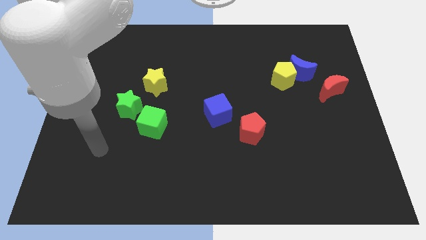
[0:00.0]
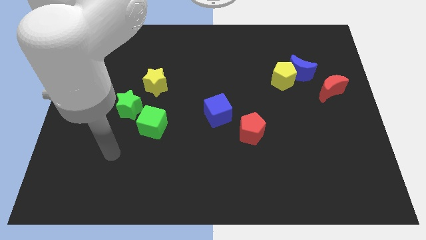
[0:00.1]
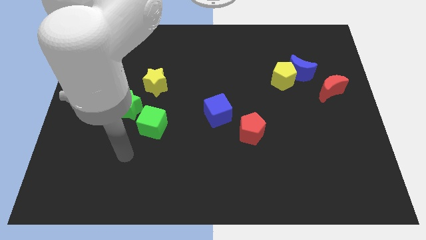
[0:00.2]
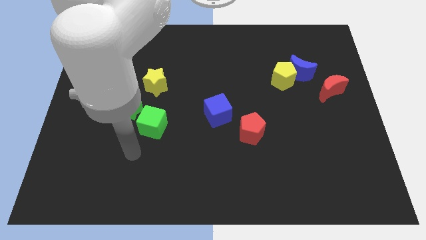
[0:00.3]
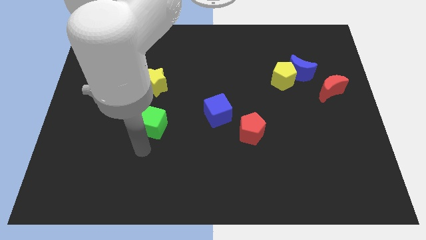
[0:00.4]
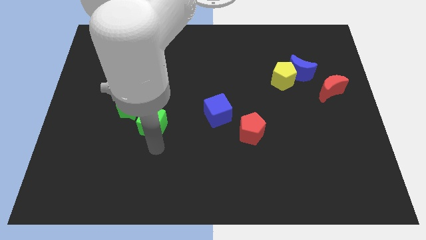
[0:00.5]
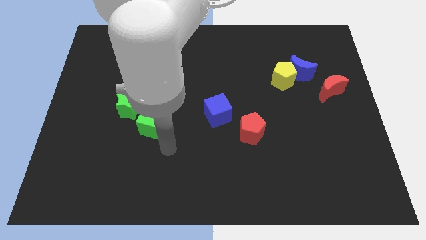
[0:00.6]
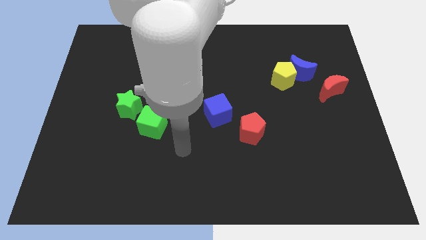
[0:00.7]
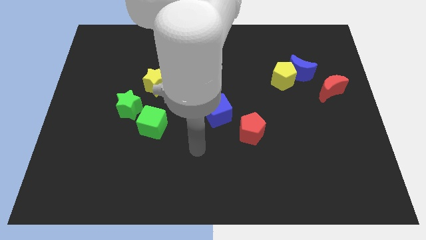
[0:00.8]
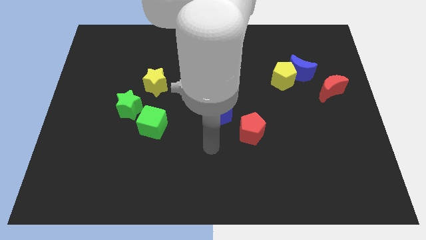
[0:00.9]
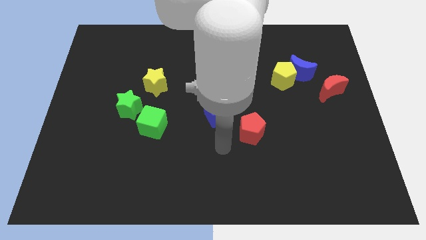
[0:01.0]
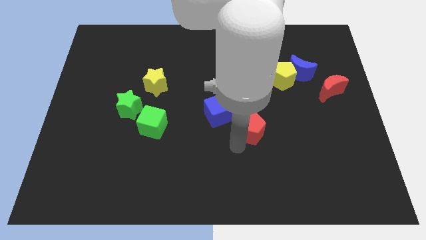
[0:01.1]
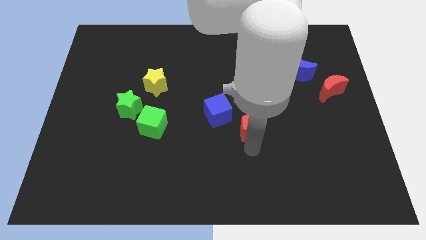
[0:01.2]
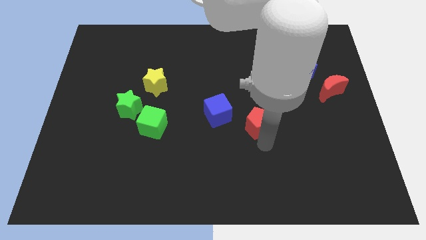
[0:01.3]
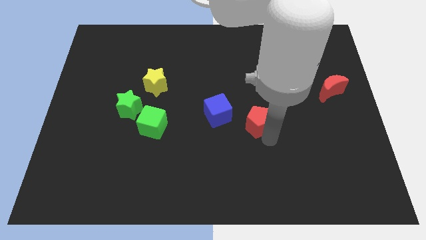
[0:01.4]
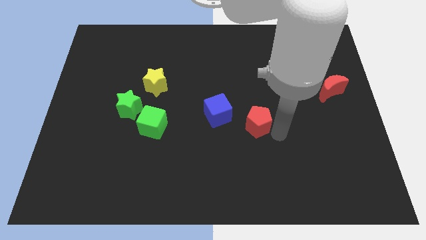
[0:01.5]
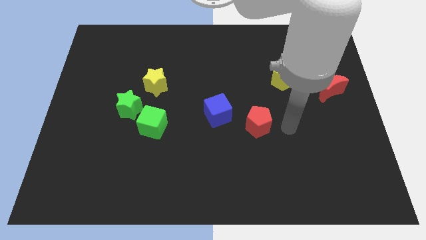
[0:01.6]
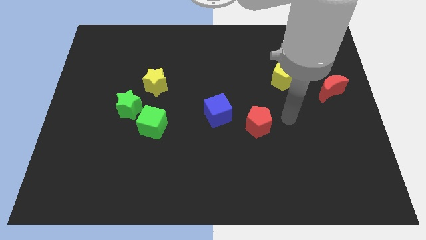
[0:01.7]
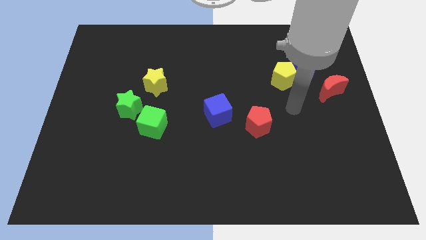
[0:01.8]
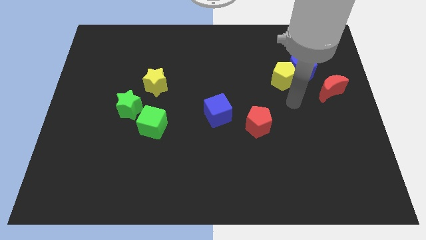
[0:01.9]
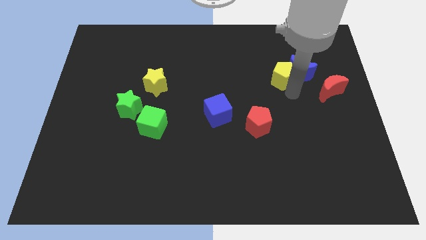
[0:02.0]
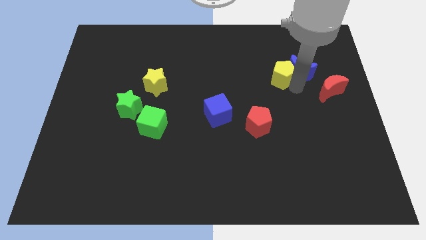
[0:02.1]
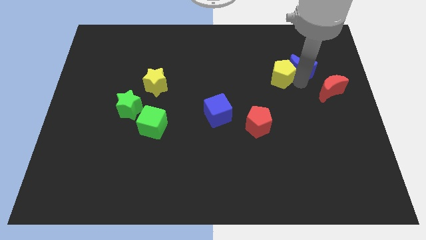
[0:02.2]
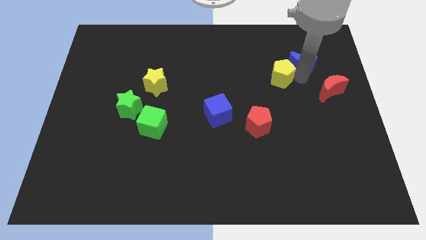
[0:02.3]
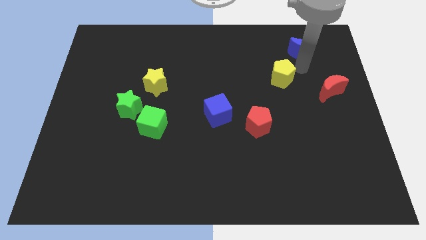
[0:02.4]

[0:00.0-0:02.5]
separate the yellow pentagon from the blue moon

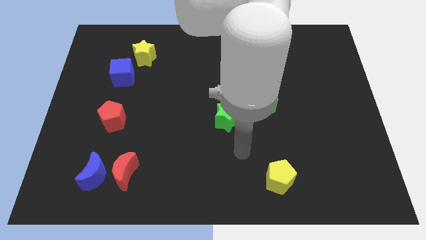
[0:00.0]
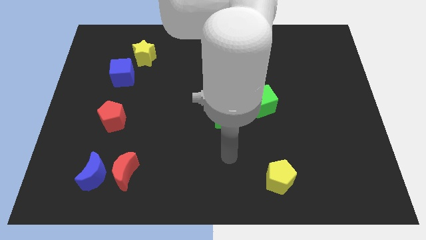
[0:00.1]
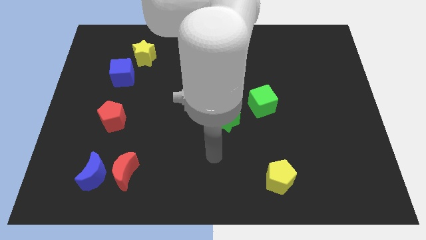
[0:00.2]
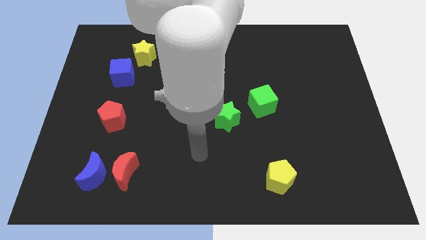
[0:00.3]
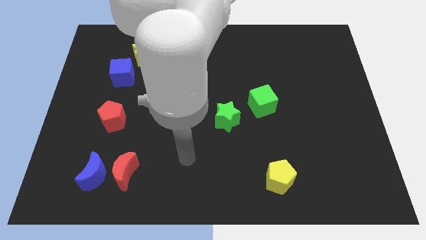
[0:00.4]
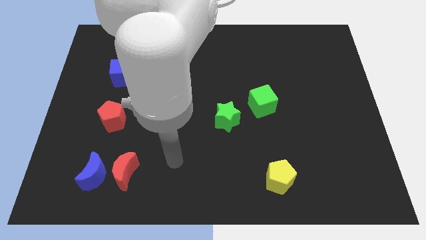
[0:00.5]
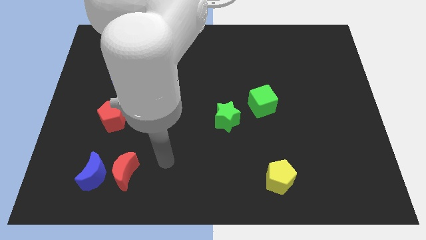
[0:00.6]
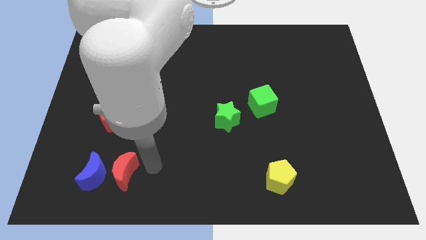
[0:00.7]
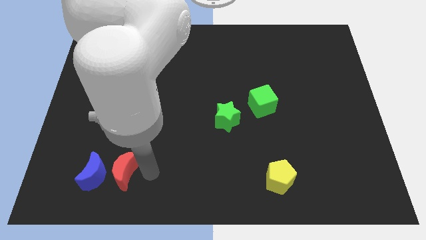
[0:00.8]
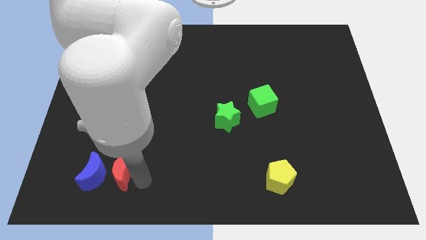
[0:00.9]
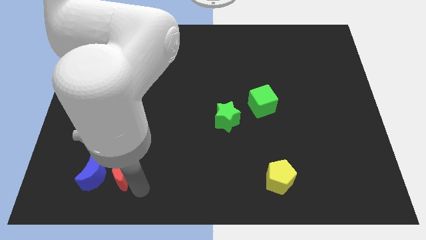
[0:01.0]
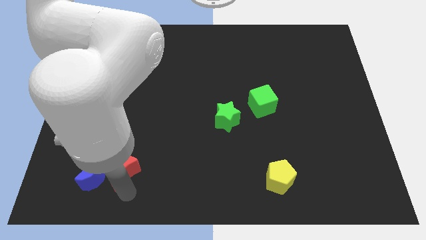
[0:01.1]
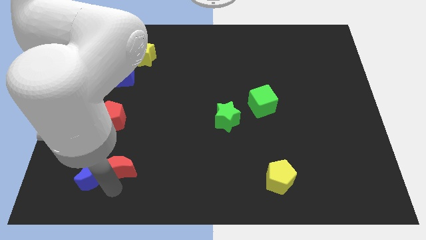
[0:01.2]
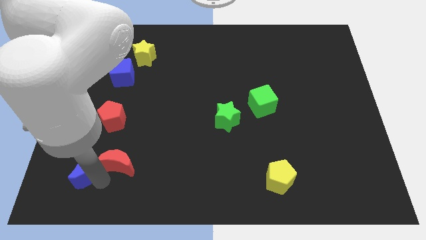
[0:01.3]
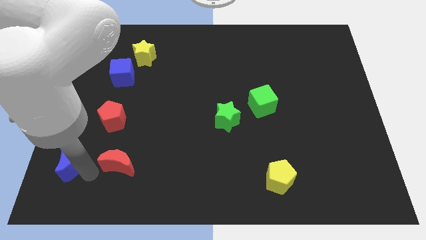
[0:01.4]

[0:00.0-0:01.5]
move the red moon away from the blue moon

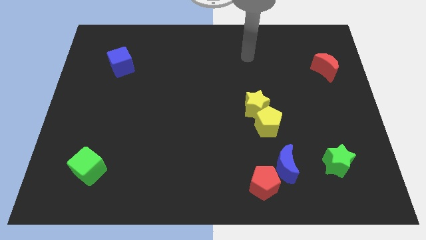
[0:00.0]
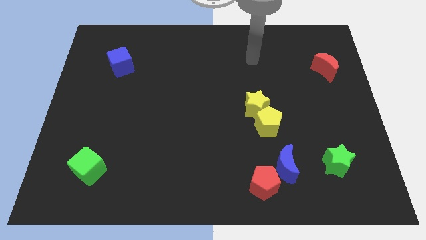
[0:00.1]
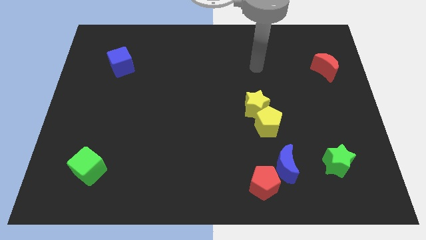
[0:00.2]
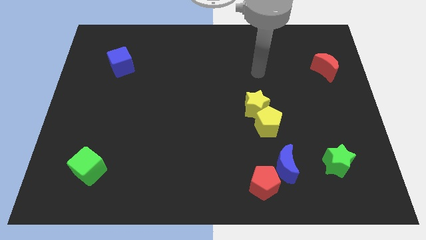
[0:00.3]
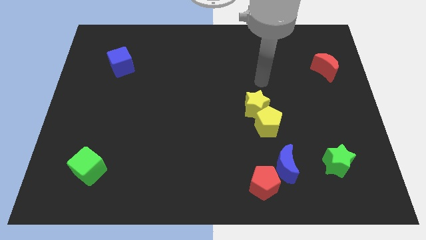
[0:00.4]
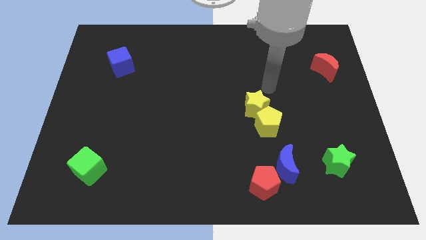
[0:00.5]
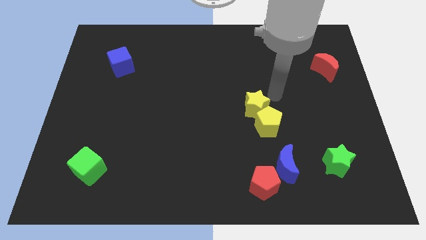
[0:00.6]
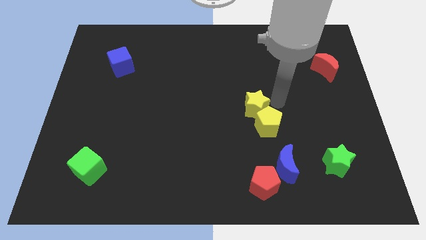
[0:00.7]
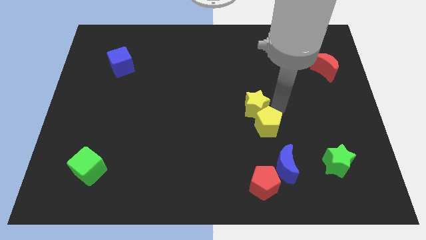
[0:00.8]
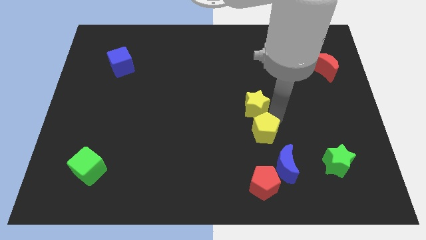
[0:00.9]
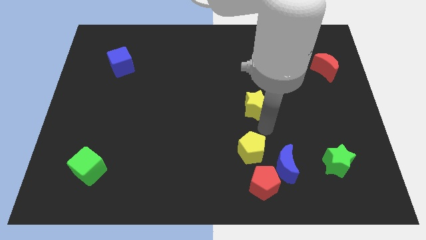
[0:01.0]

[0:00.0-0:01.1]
separate the yellow star from the yellow pentagon

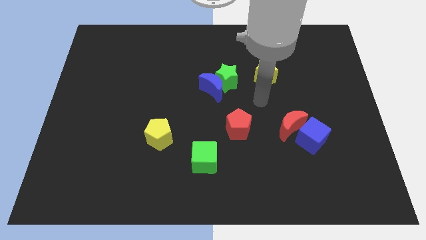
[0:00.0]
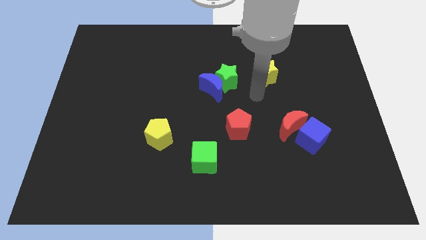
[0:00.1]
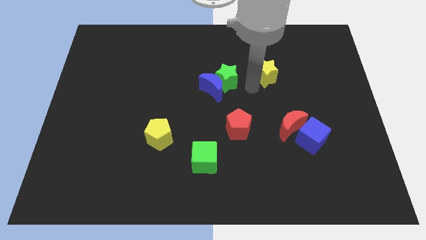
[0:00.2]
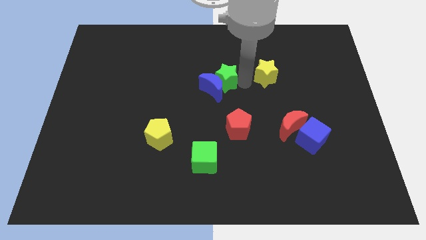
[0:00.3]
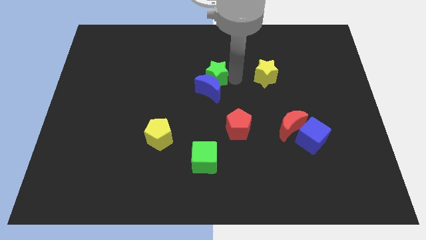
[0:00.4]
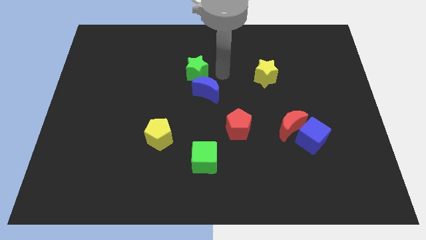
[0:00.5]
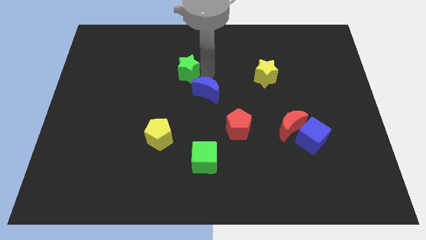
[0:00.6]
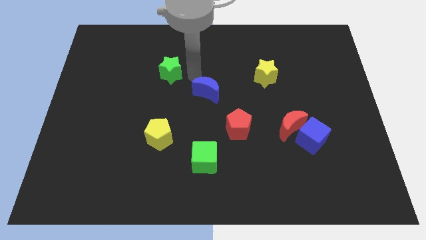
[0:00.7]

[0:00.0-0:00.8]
move the blue moon away from the green star

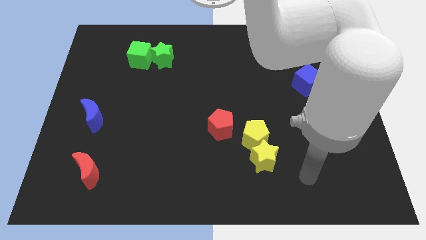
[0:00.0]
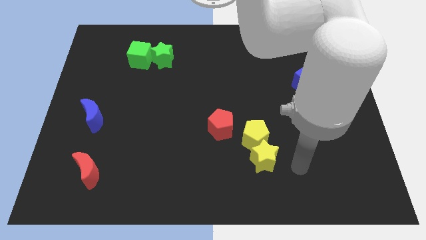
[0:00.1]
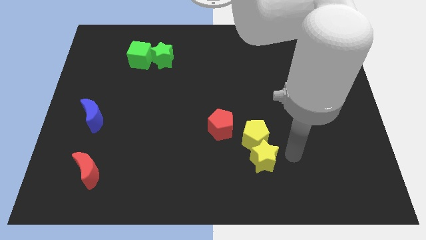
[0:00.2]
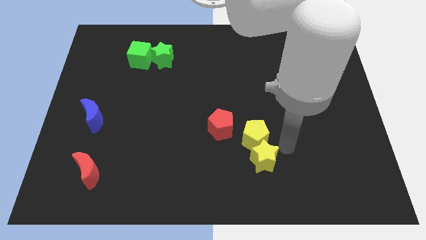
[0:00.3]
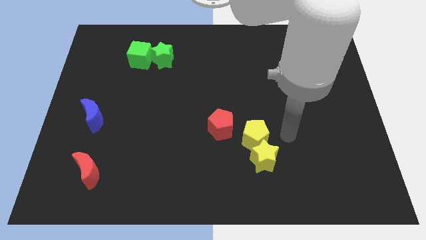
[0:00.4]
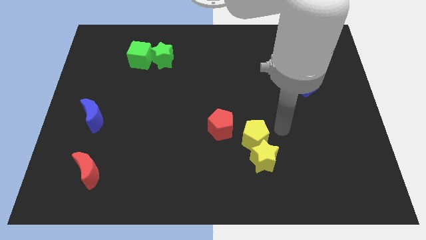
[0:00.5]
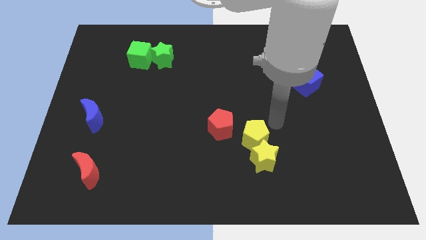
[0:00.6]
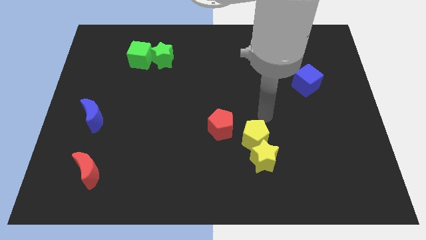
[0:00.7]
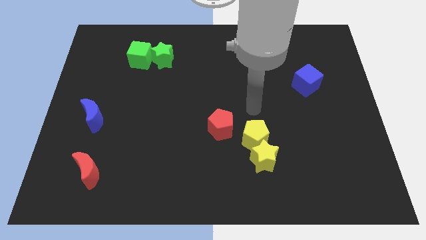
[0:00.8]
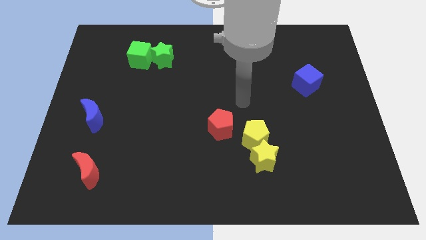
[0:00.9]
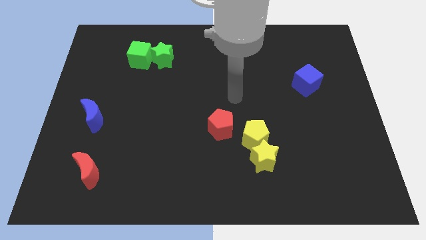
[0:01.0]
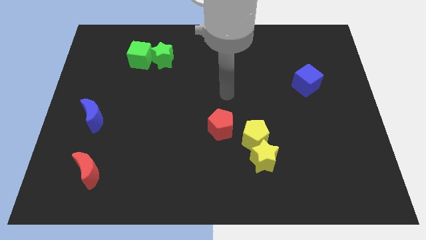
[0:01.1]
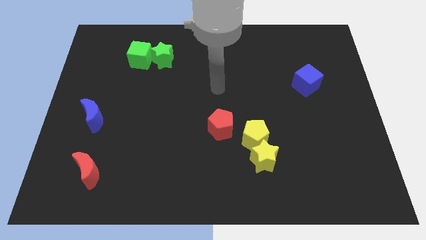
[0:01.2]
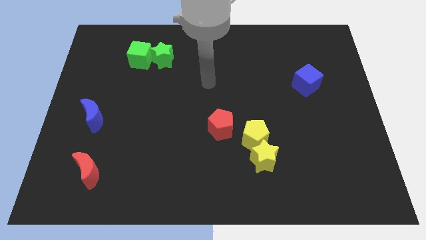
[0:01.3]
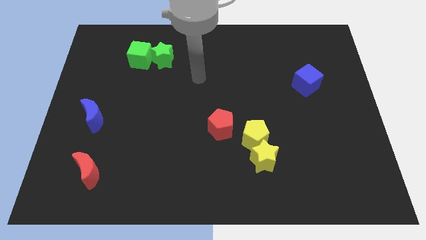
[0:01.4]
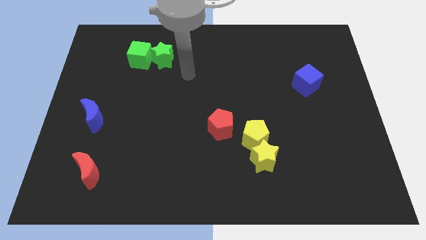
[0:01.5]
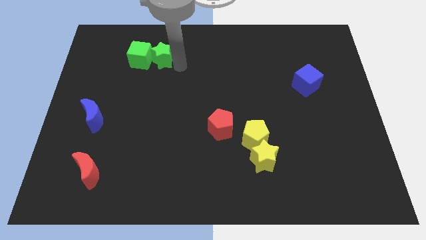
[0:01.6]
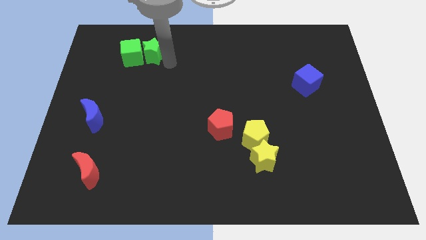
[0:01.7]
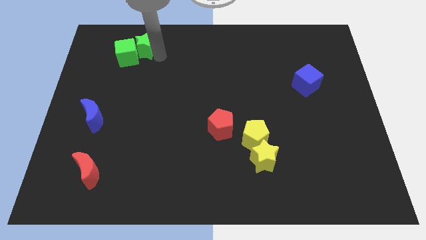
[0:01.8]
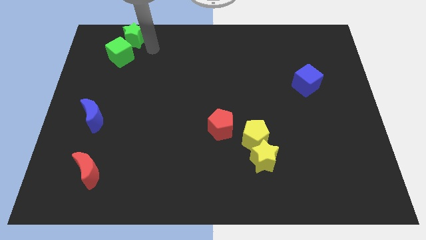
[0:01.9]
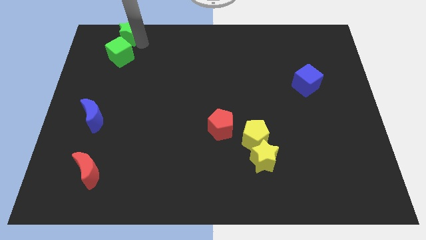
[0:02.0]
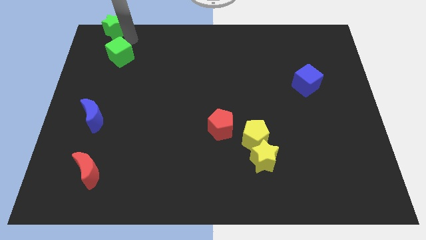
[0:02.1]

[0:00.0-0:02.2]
separate the green cube from the green star

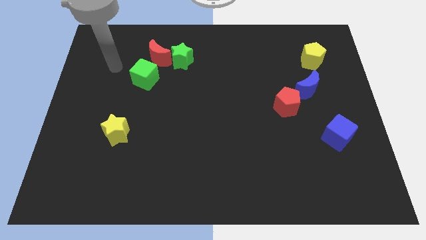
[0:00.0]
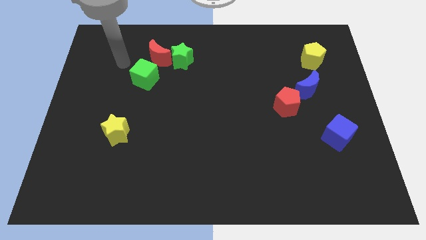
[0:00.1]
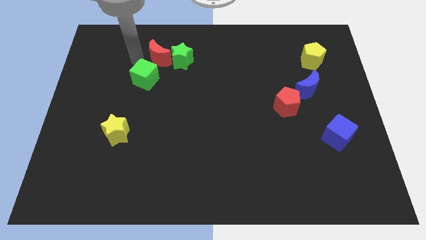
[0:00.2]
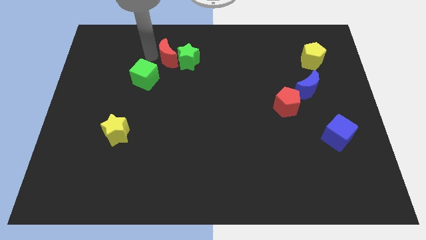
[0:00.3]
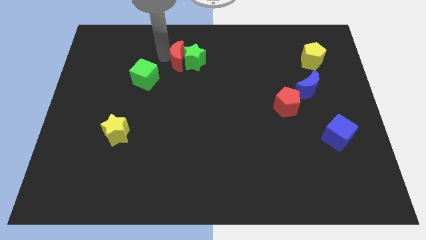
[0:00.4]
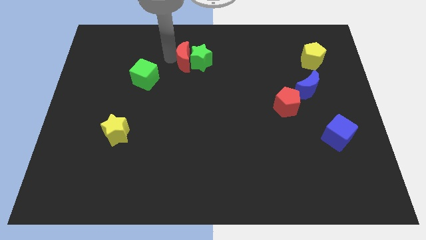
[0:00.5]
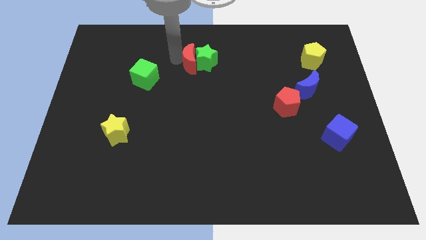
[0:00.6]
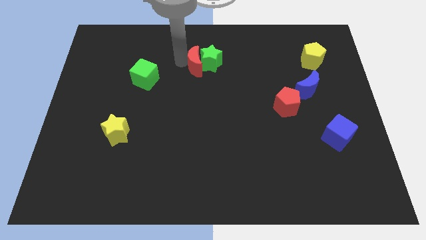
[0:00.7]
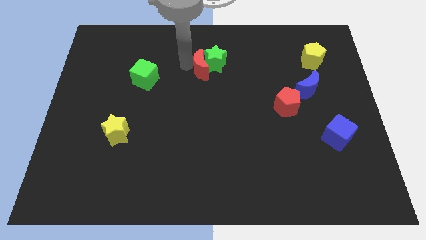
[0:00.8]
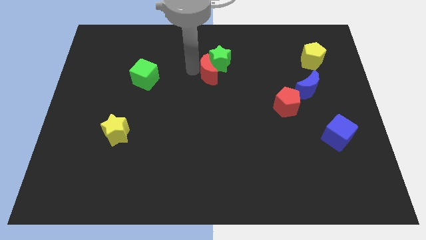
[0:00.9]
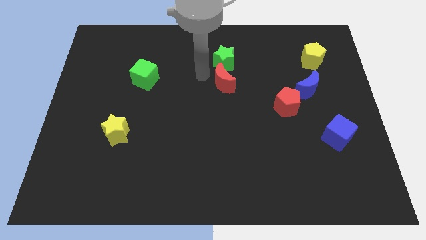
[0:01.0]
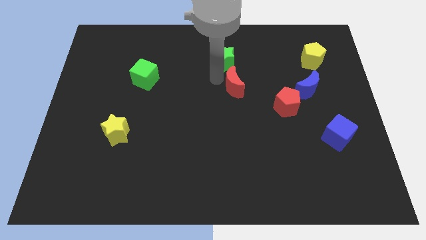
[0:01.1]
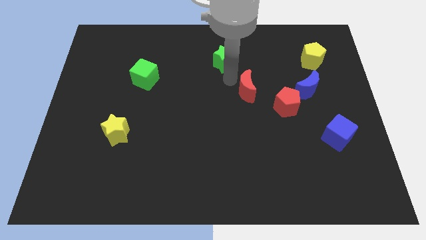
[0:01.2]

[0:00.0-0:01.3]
separate the green star from the red moon
